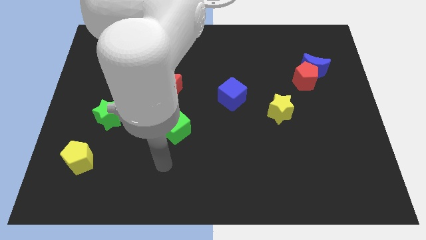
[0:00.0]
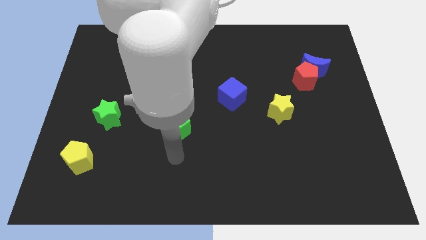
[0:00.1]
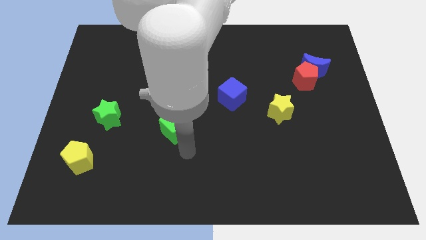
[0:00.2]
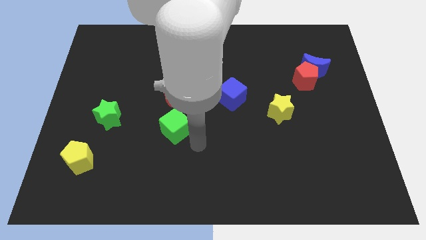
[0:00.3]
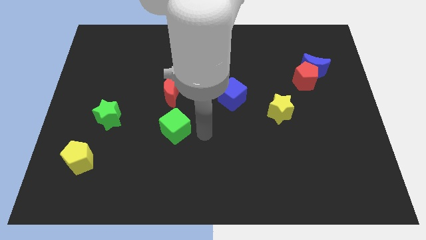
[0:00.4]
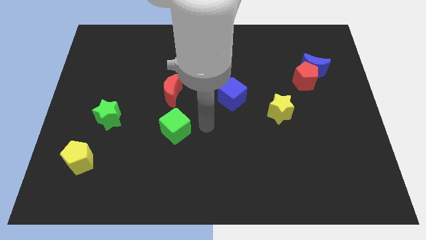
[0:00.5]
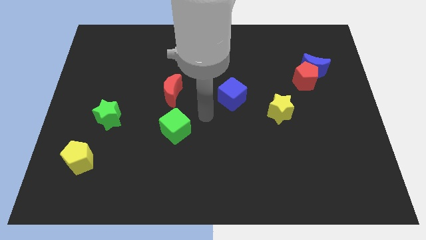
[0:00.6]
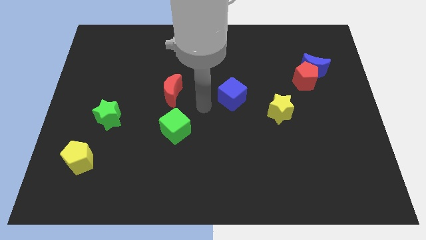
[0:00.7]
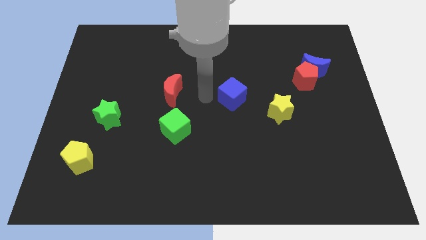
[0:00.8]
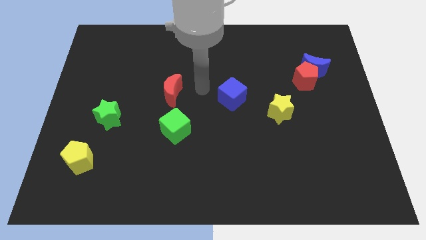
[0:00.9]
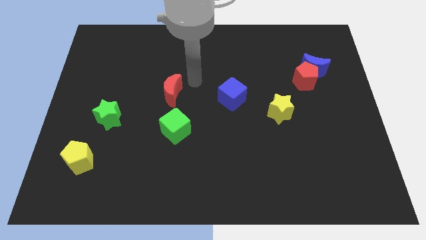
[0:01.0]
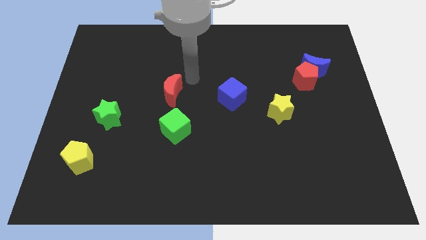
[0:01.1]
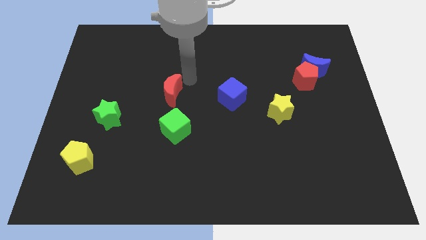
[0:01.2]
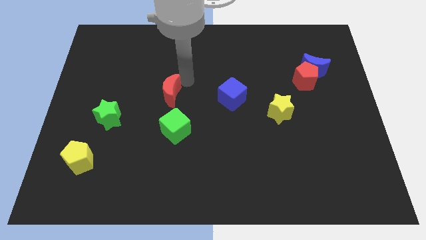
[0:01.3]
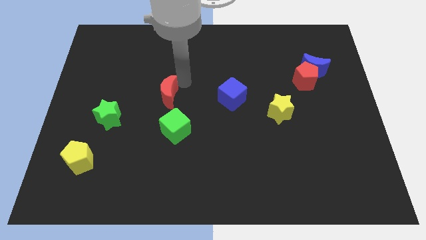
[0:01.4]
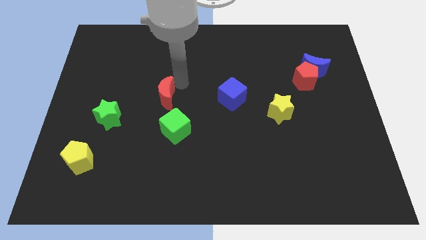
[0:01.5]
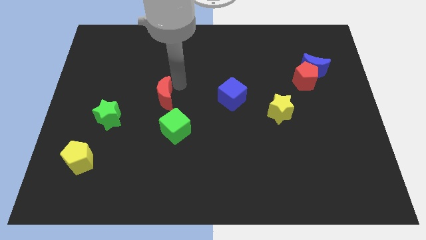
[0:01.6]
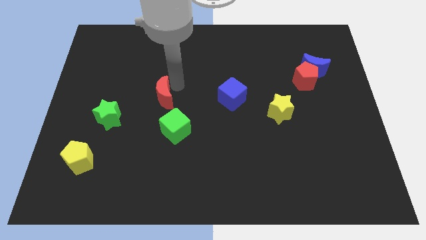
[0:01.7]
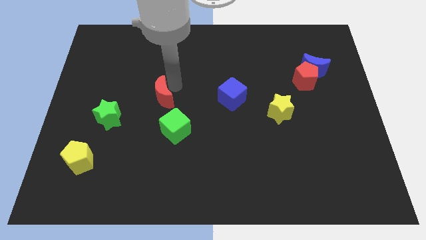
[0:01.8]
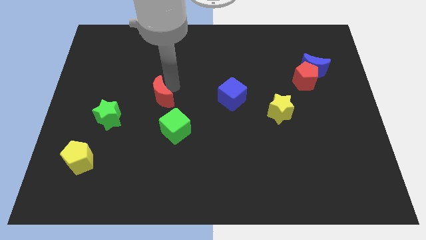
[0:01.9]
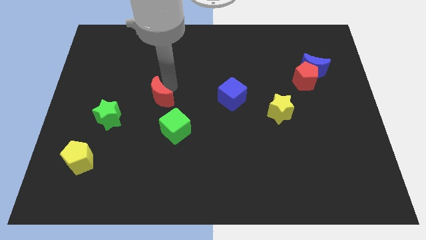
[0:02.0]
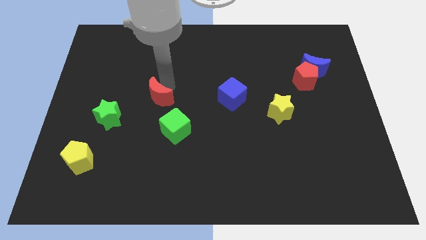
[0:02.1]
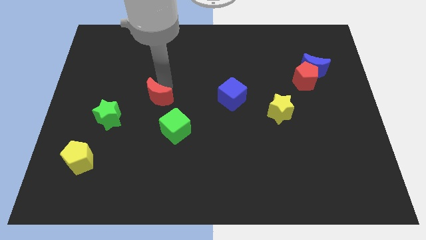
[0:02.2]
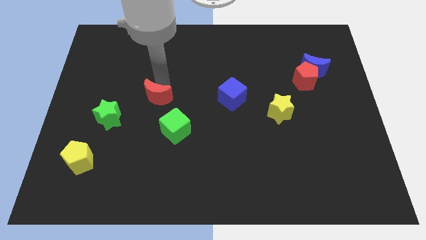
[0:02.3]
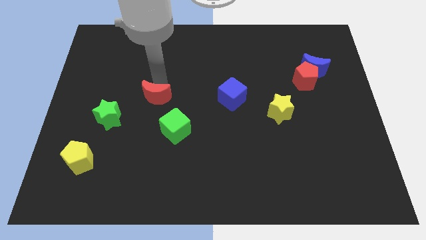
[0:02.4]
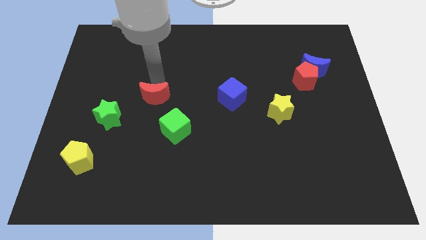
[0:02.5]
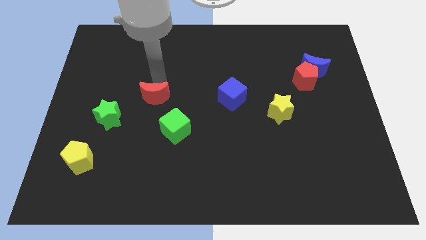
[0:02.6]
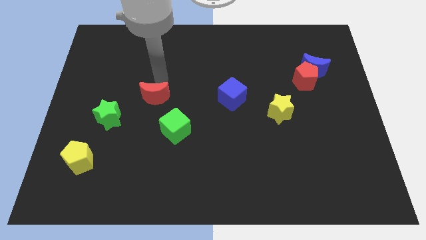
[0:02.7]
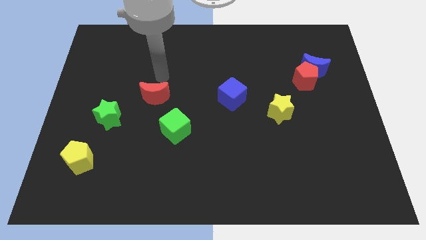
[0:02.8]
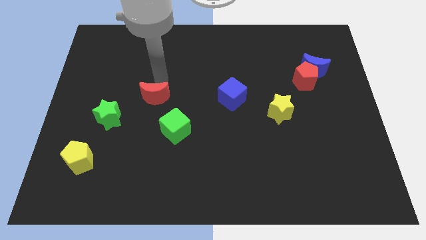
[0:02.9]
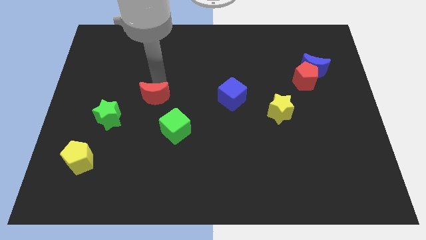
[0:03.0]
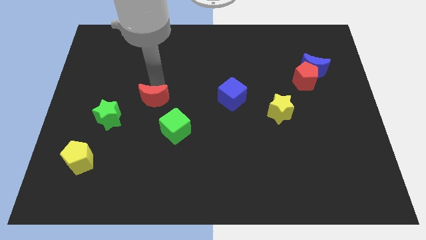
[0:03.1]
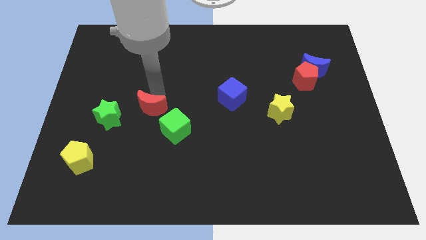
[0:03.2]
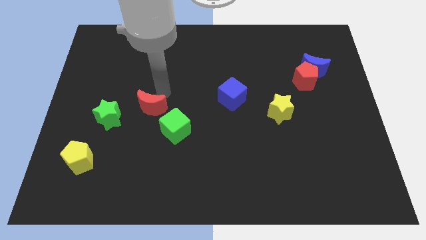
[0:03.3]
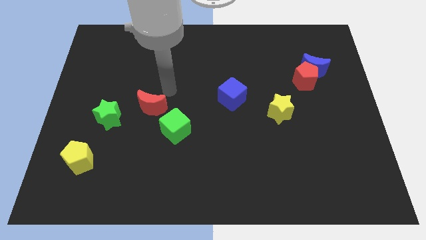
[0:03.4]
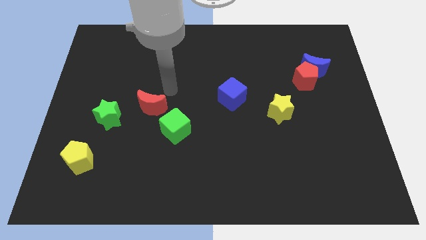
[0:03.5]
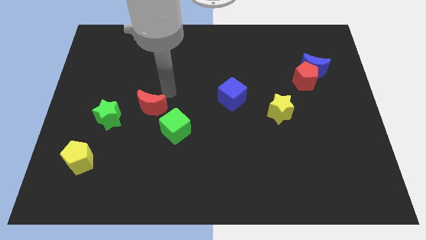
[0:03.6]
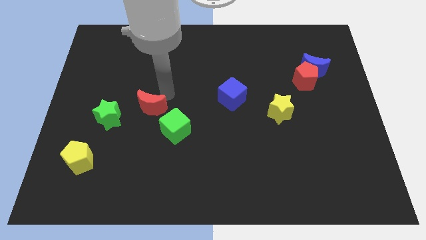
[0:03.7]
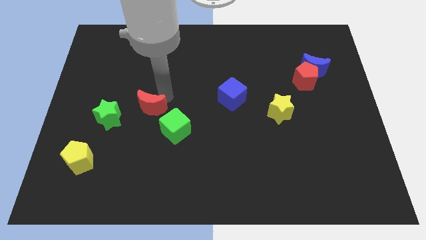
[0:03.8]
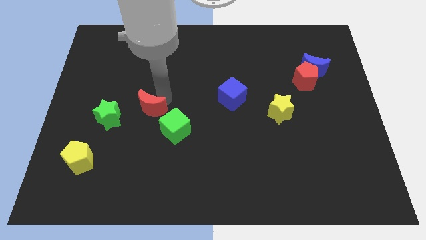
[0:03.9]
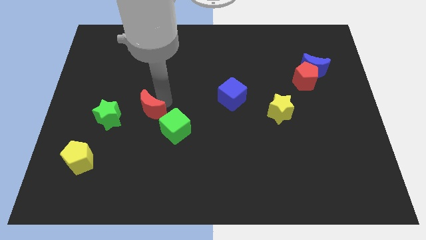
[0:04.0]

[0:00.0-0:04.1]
slightly slide the red moon downwards and left

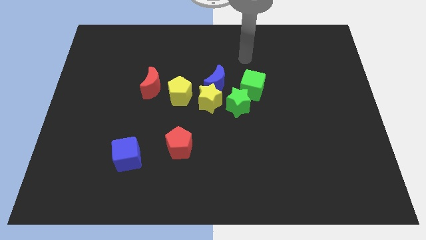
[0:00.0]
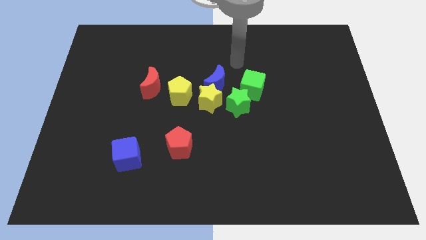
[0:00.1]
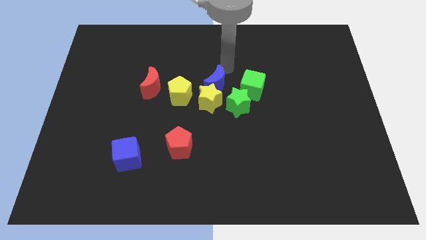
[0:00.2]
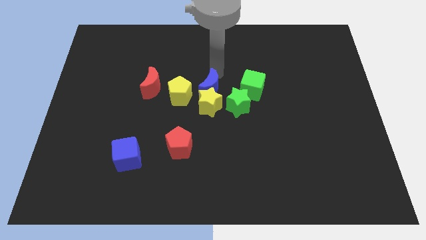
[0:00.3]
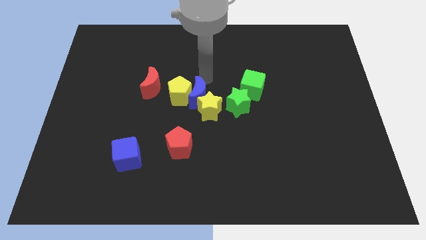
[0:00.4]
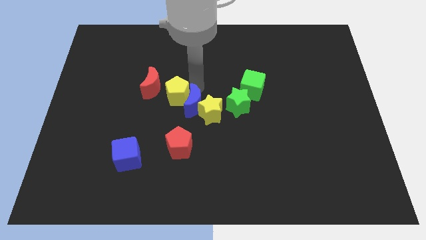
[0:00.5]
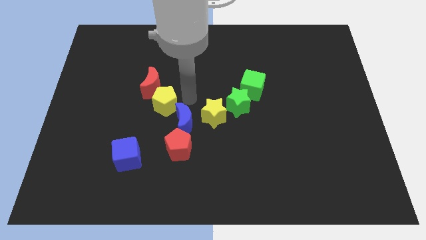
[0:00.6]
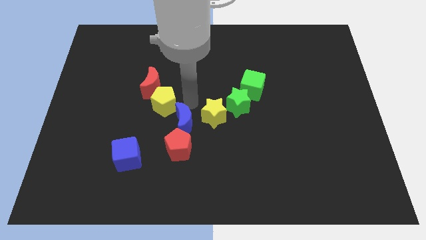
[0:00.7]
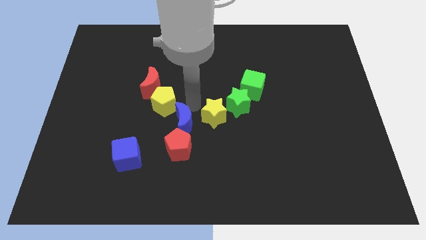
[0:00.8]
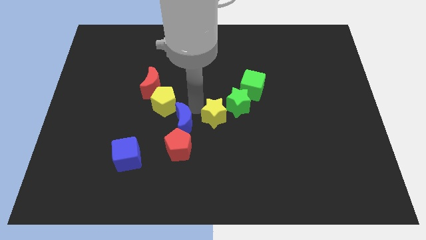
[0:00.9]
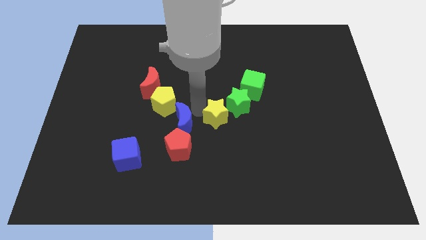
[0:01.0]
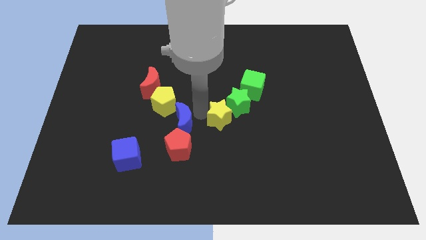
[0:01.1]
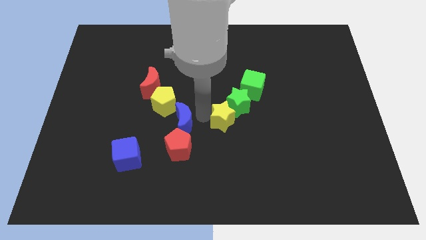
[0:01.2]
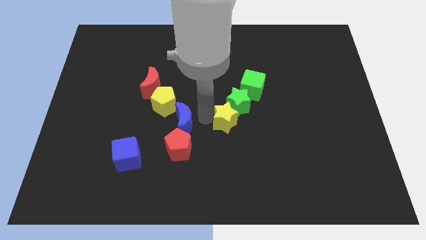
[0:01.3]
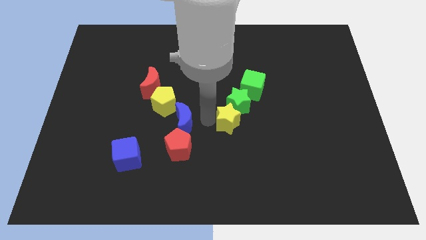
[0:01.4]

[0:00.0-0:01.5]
slide the yellow star downwards and to the right diagonally somewhat

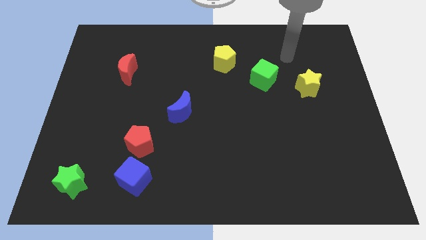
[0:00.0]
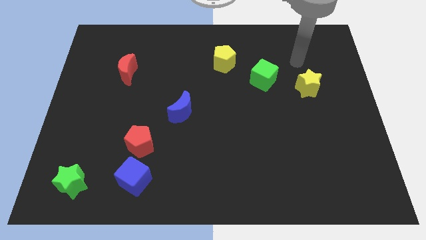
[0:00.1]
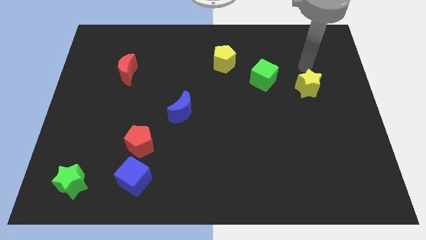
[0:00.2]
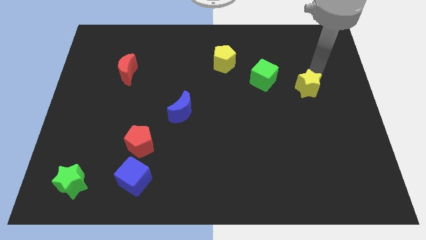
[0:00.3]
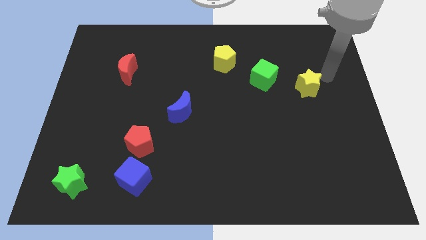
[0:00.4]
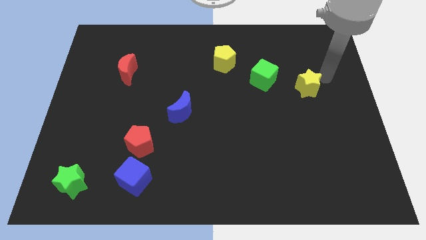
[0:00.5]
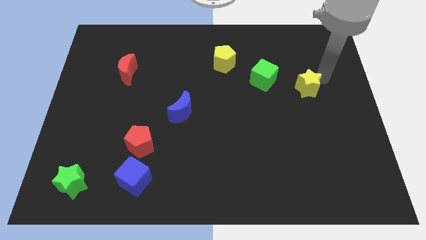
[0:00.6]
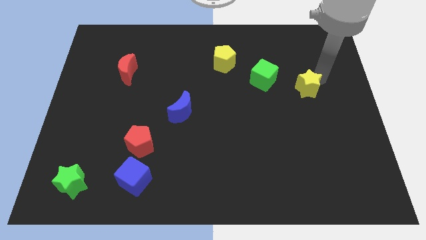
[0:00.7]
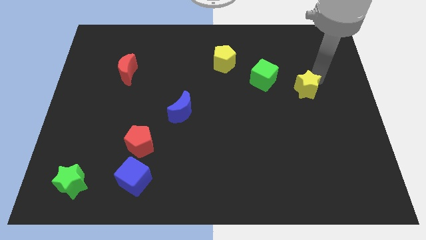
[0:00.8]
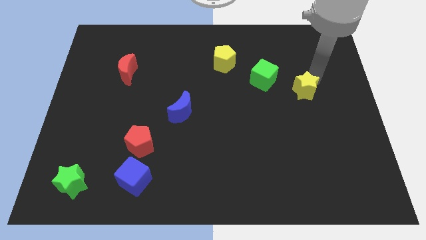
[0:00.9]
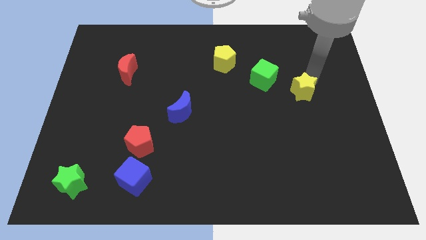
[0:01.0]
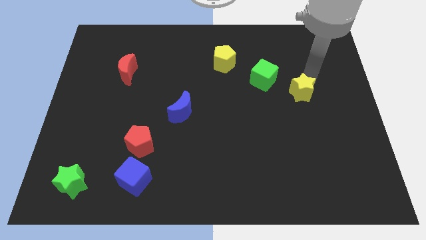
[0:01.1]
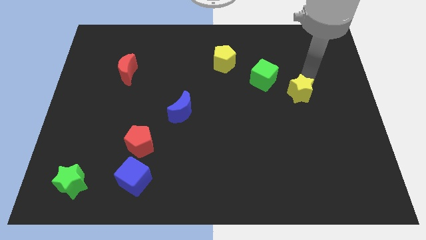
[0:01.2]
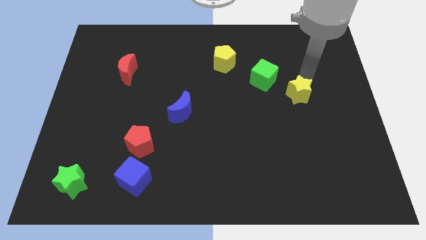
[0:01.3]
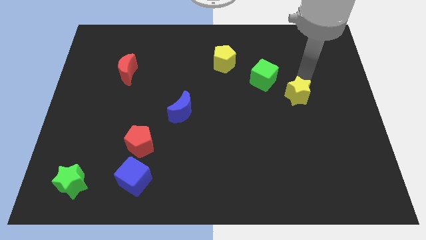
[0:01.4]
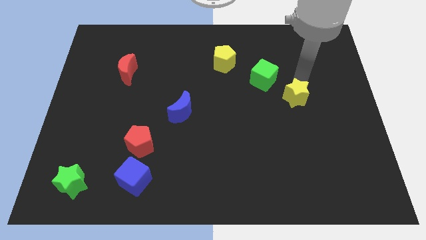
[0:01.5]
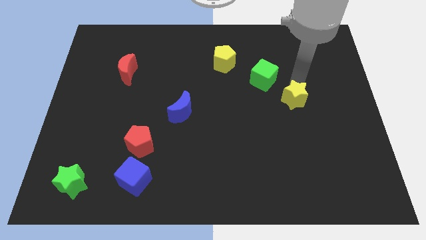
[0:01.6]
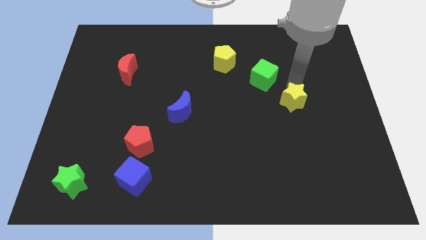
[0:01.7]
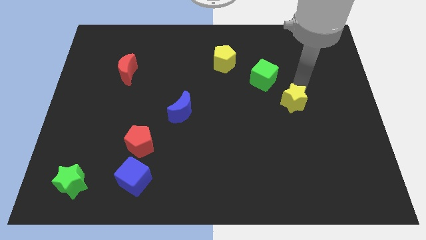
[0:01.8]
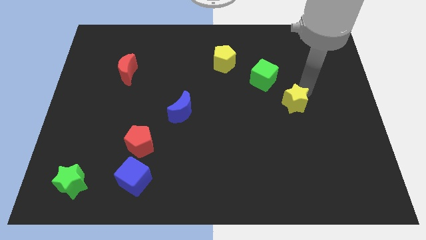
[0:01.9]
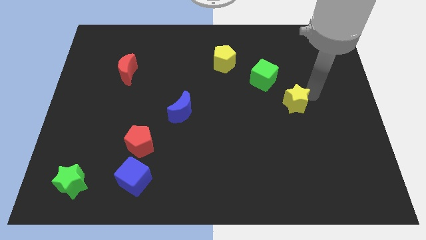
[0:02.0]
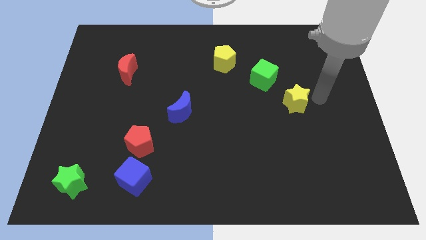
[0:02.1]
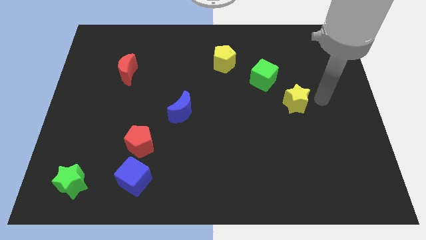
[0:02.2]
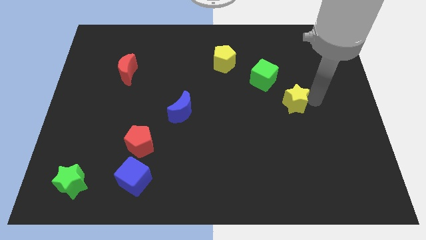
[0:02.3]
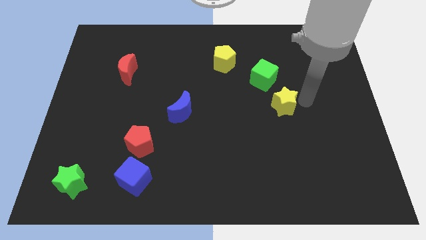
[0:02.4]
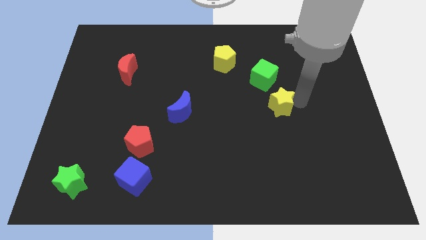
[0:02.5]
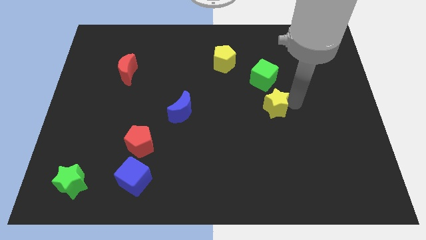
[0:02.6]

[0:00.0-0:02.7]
slide the yellow star slightly to the left
